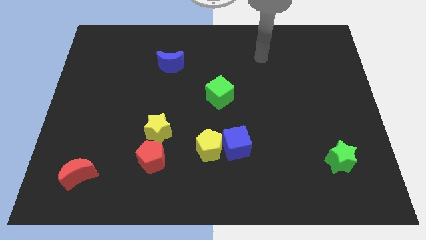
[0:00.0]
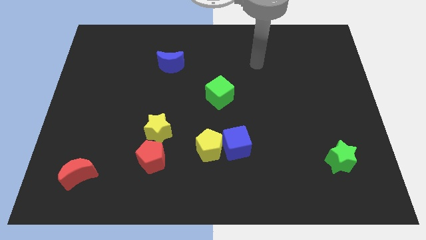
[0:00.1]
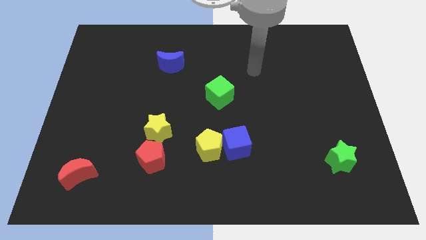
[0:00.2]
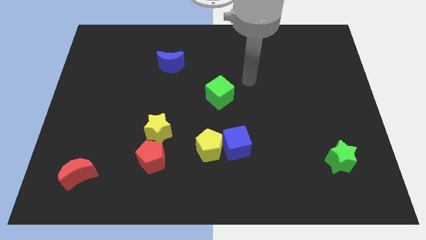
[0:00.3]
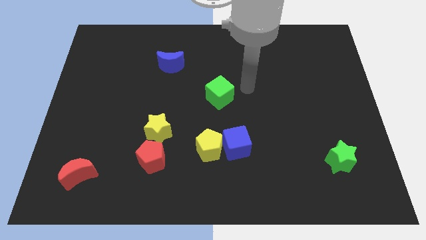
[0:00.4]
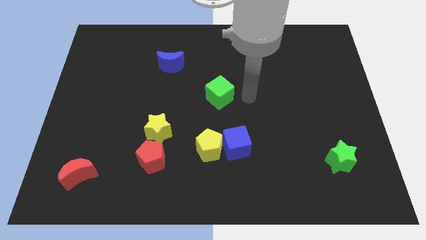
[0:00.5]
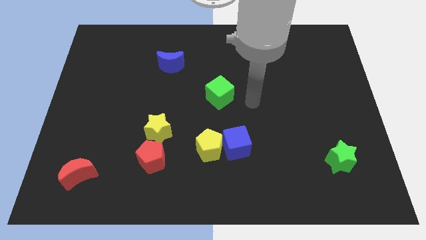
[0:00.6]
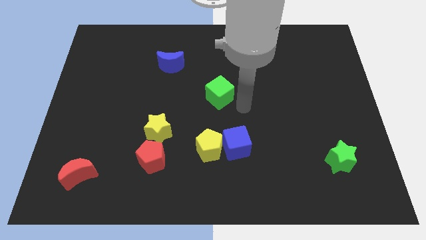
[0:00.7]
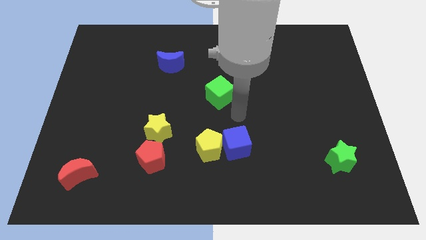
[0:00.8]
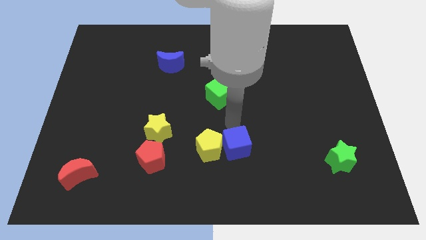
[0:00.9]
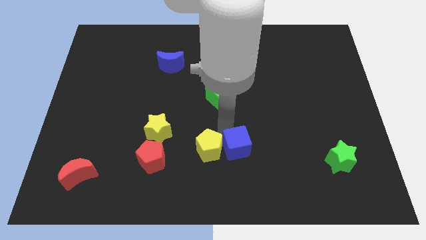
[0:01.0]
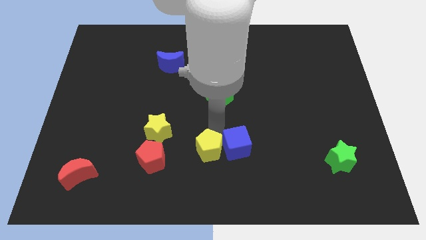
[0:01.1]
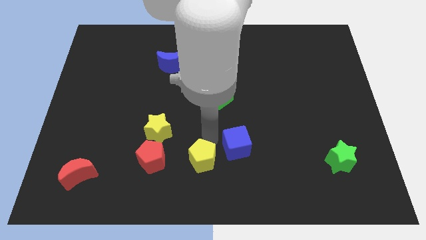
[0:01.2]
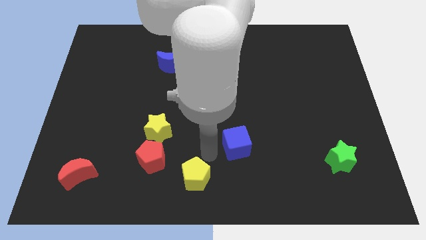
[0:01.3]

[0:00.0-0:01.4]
pull the blue cube apart from the yellow pentagon

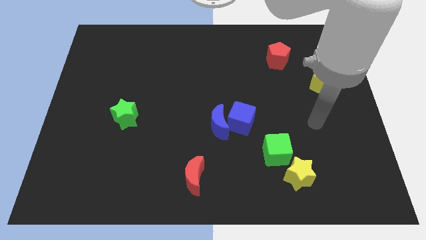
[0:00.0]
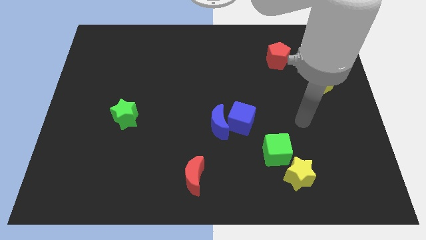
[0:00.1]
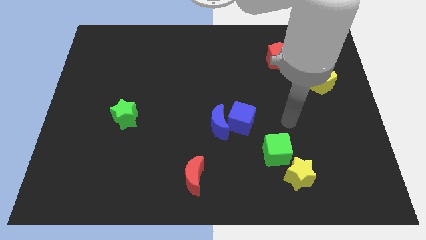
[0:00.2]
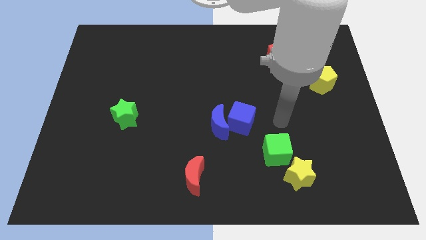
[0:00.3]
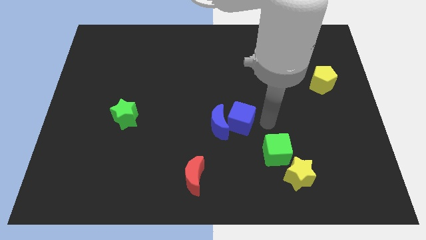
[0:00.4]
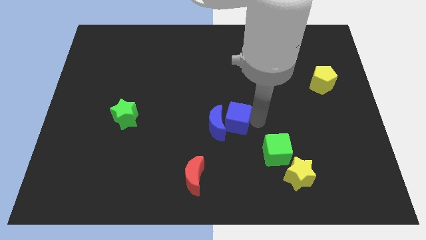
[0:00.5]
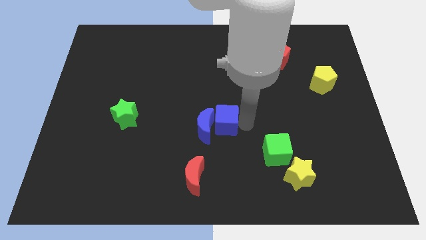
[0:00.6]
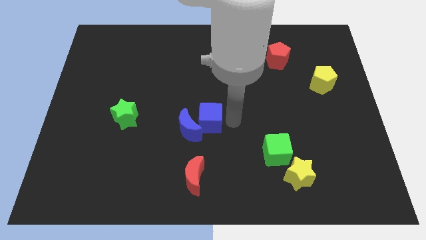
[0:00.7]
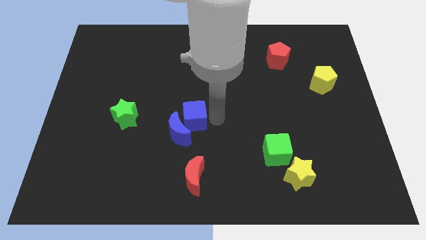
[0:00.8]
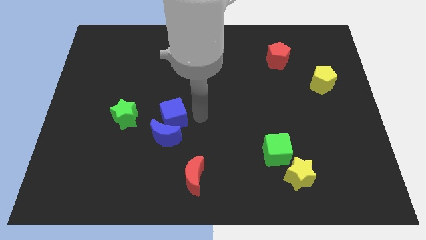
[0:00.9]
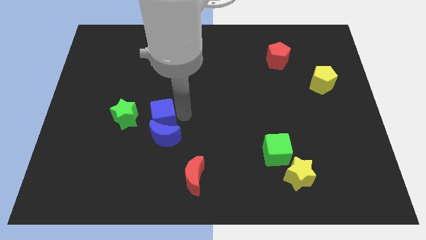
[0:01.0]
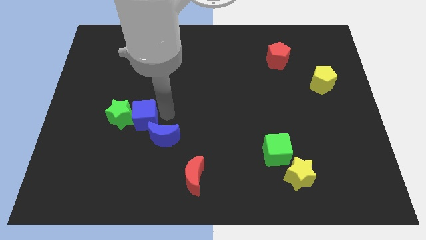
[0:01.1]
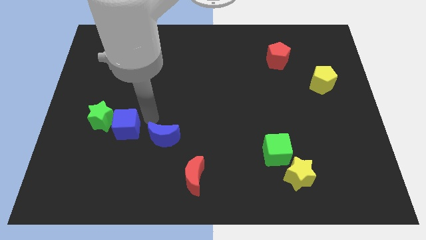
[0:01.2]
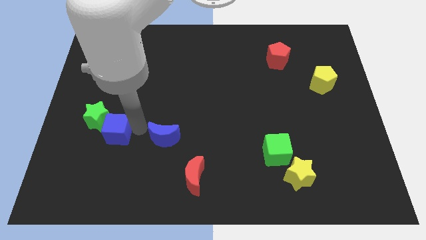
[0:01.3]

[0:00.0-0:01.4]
separate the blue moon from the blue cube

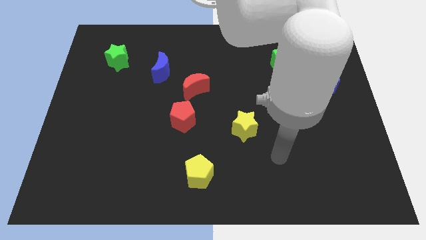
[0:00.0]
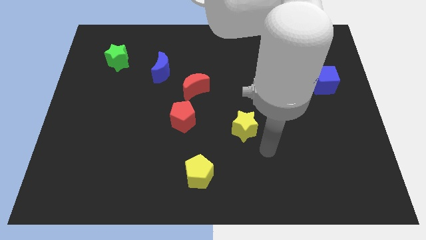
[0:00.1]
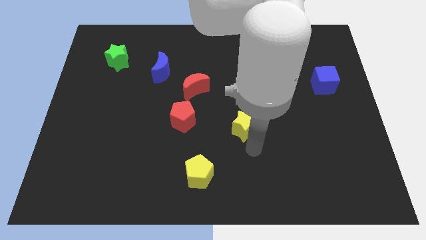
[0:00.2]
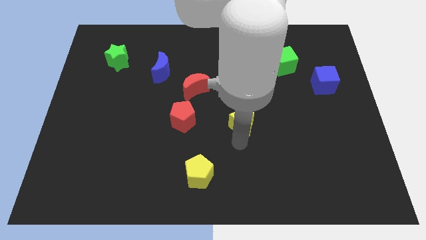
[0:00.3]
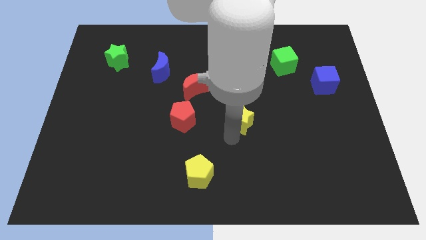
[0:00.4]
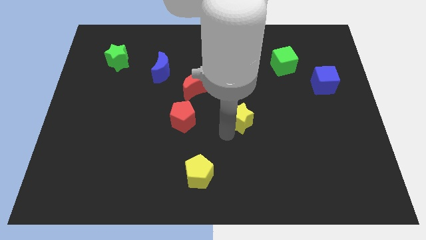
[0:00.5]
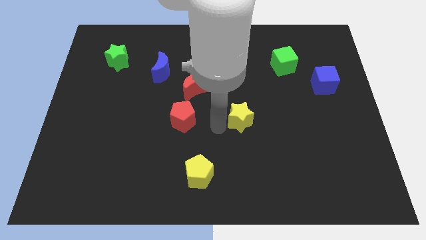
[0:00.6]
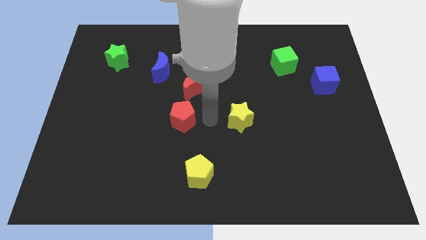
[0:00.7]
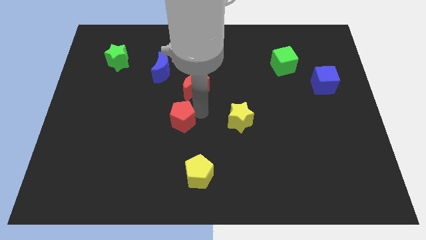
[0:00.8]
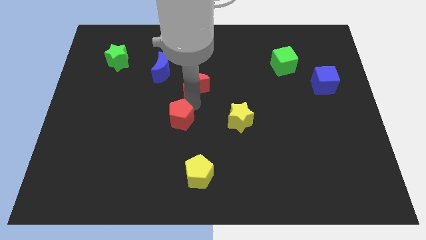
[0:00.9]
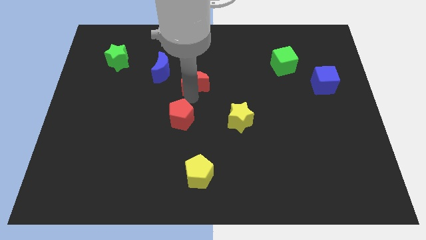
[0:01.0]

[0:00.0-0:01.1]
pull the red pentagon apart from the red moon

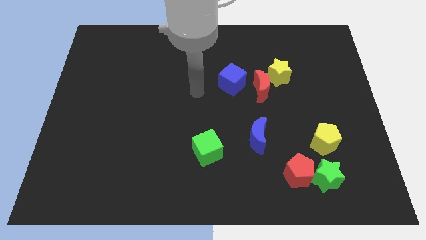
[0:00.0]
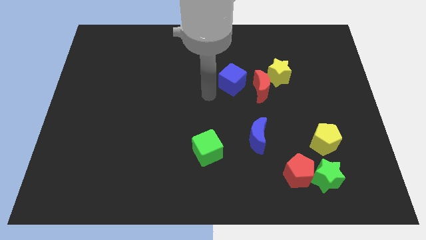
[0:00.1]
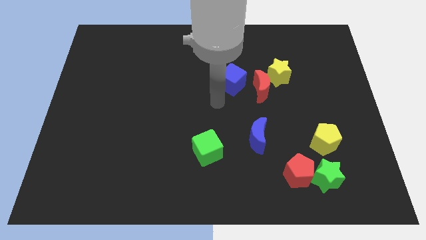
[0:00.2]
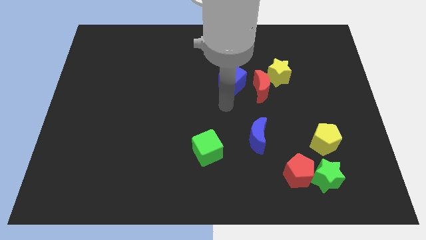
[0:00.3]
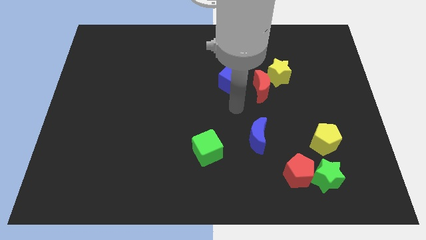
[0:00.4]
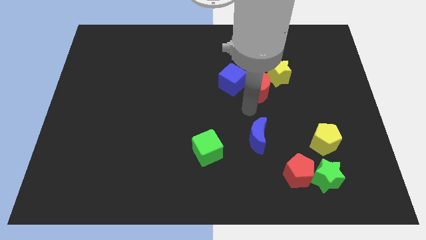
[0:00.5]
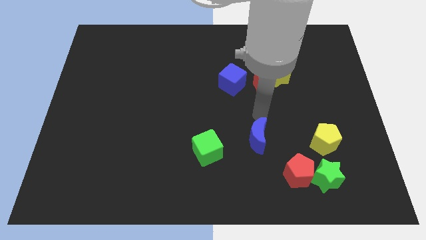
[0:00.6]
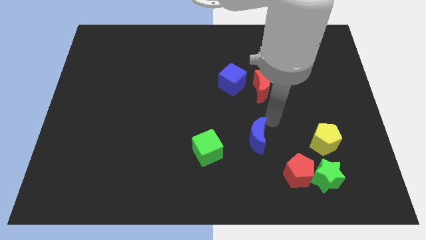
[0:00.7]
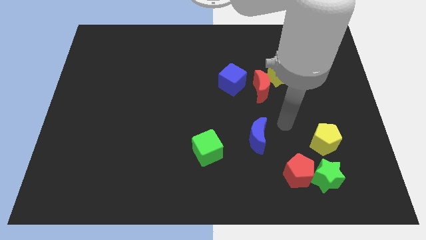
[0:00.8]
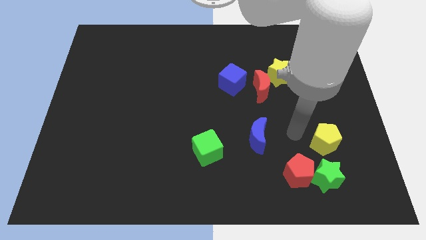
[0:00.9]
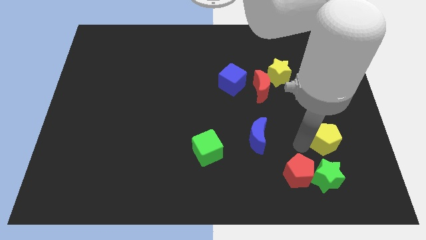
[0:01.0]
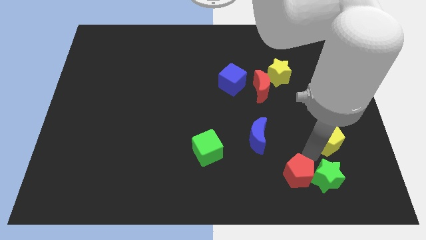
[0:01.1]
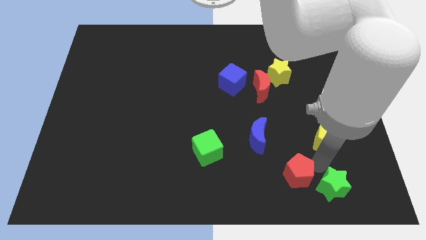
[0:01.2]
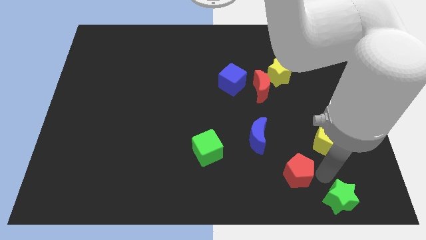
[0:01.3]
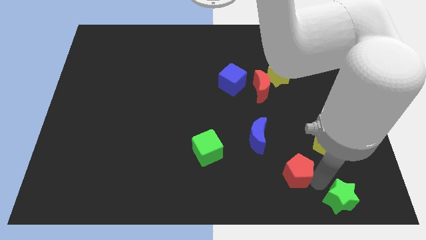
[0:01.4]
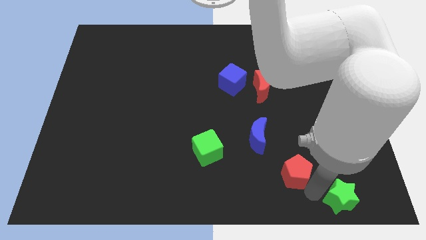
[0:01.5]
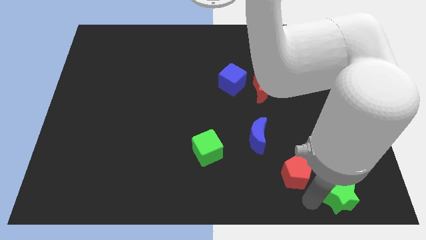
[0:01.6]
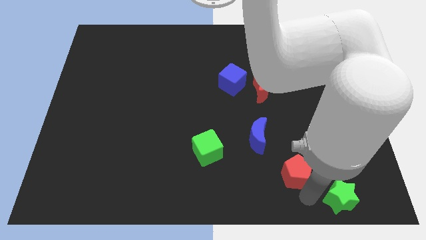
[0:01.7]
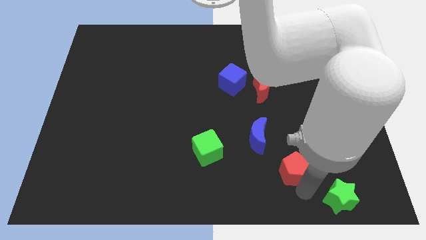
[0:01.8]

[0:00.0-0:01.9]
separate the red pentagon from the green star

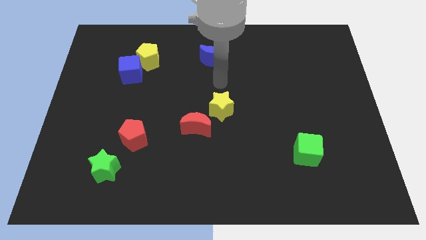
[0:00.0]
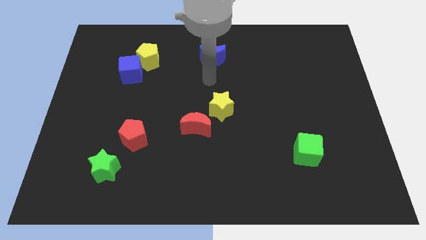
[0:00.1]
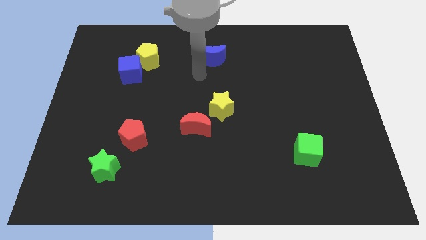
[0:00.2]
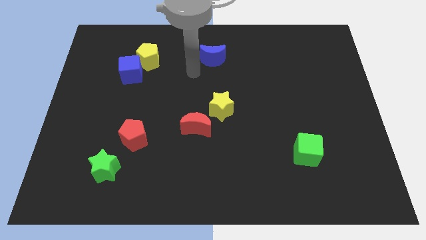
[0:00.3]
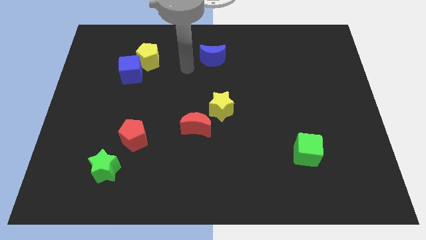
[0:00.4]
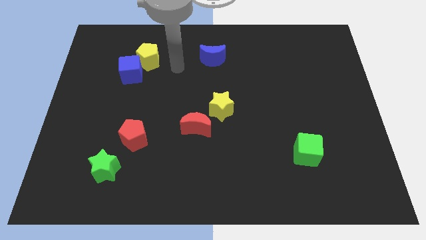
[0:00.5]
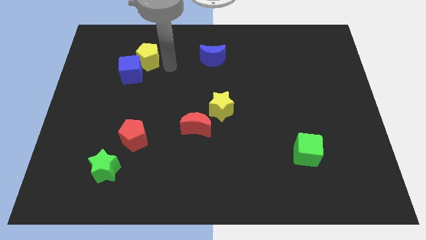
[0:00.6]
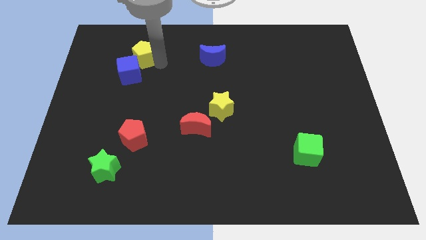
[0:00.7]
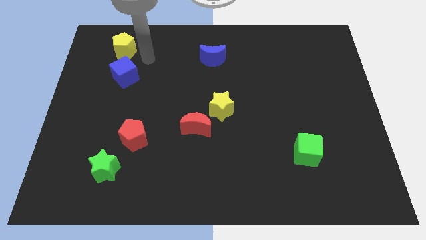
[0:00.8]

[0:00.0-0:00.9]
move the blue cube away from the yellow pentagon

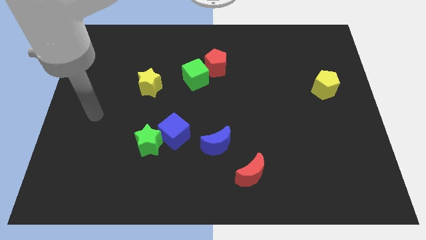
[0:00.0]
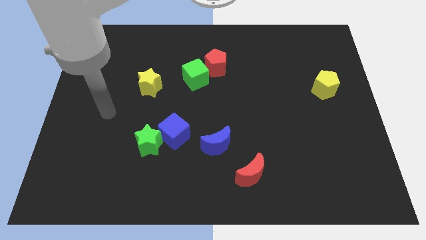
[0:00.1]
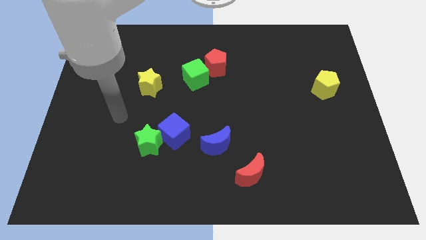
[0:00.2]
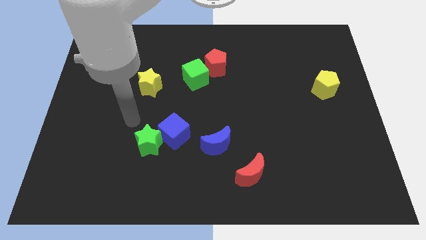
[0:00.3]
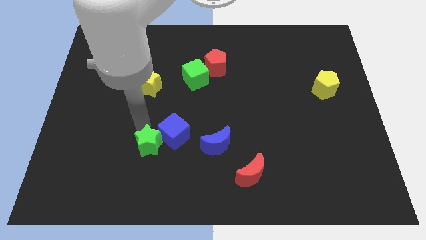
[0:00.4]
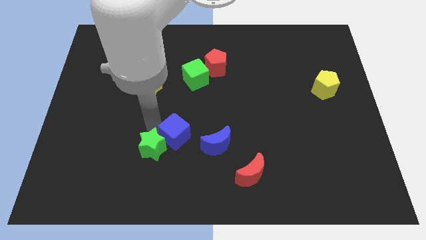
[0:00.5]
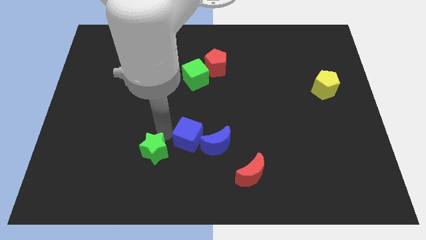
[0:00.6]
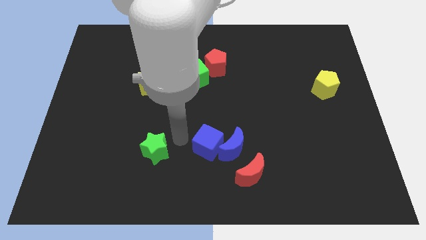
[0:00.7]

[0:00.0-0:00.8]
pull the green star apart from the blue cube

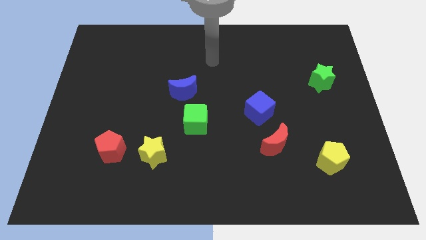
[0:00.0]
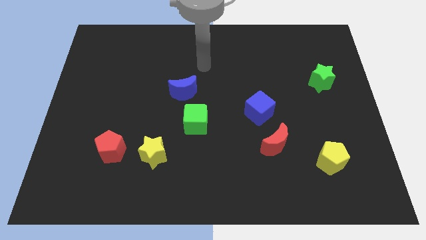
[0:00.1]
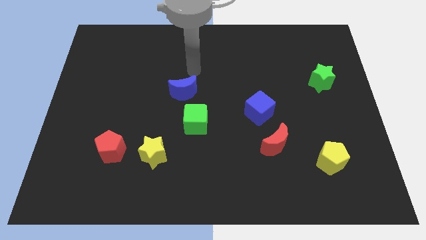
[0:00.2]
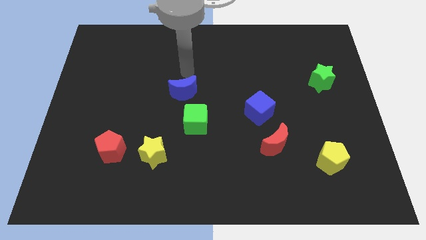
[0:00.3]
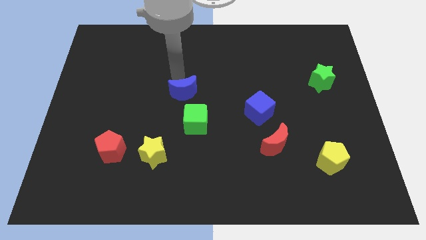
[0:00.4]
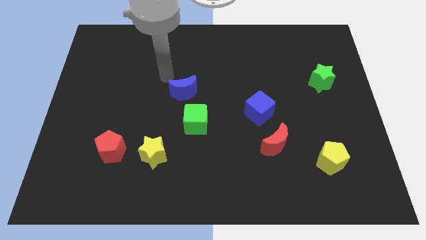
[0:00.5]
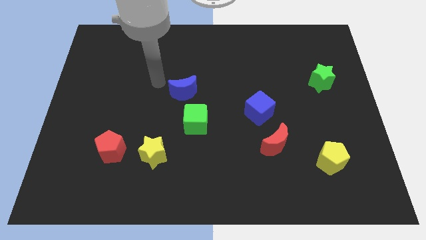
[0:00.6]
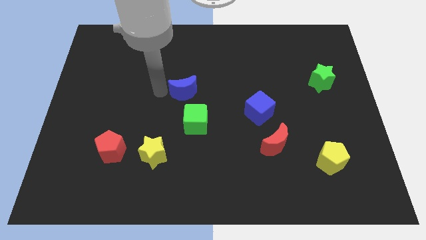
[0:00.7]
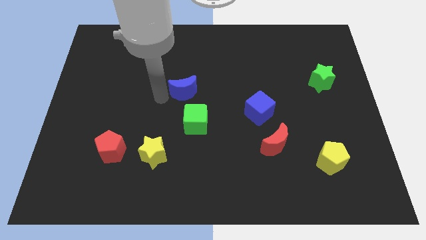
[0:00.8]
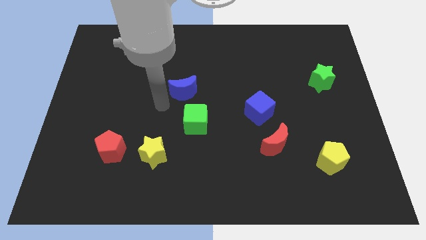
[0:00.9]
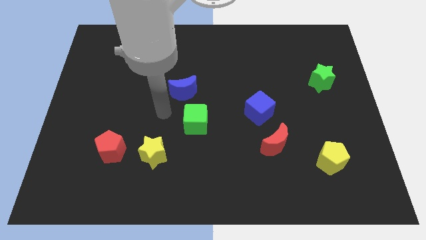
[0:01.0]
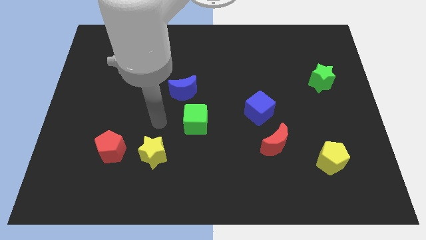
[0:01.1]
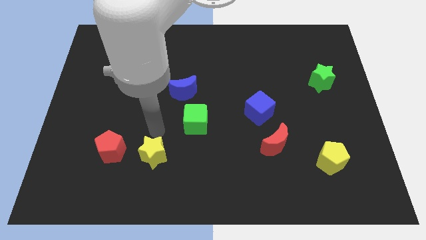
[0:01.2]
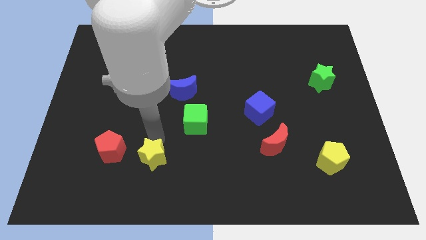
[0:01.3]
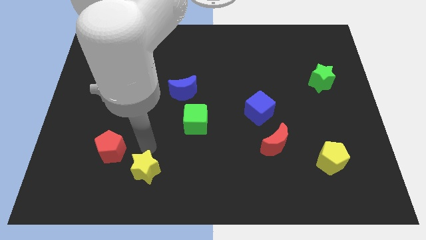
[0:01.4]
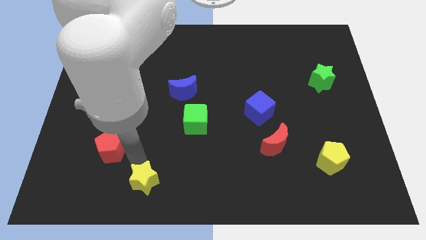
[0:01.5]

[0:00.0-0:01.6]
pull the red pentagon apart from the yellow star

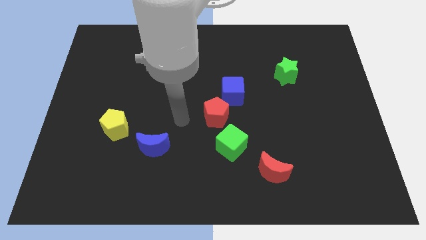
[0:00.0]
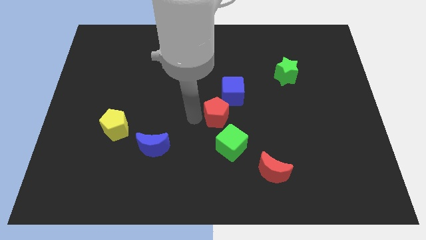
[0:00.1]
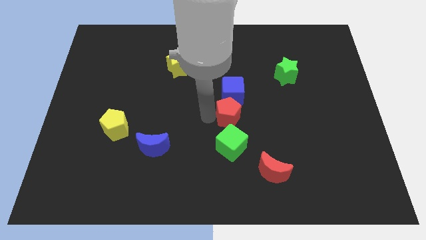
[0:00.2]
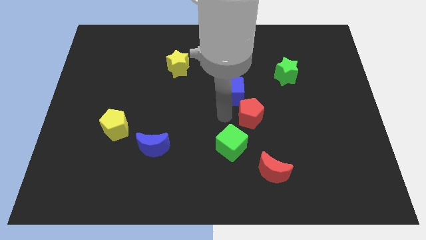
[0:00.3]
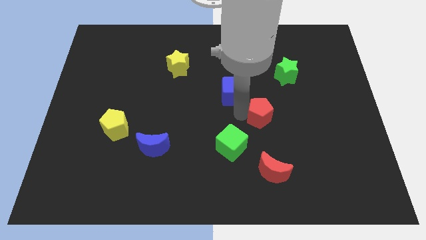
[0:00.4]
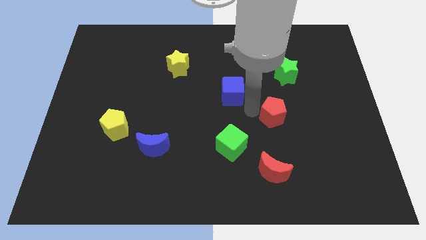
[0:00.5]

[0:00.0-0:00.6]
separate the blue cube from the red pentagon
